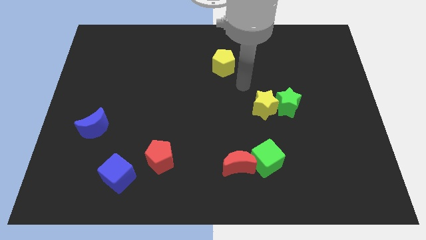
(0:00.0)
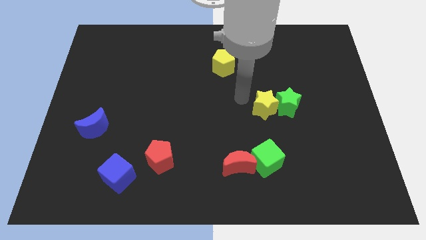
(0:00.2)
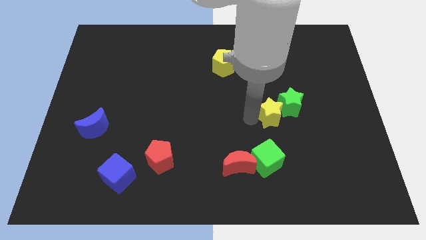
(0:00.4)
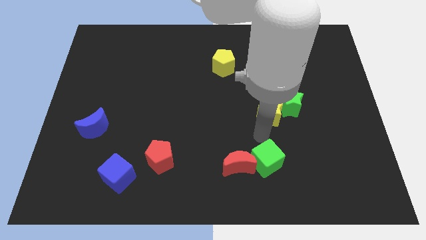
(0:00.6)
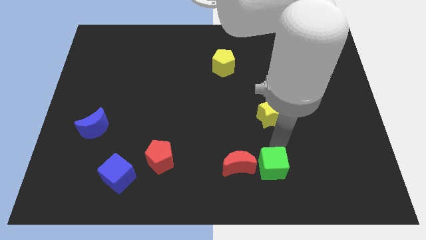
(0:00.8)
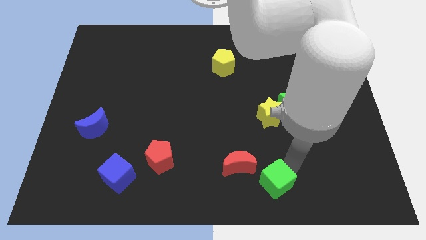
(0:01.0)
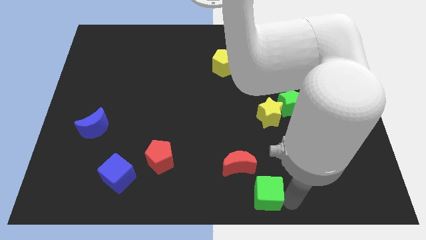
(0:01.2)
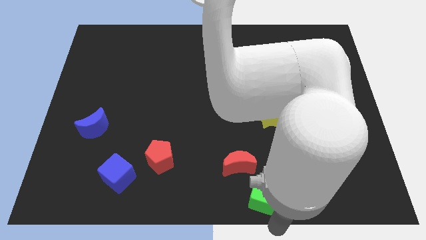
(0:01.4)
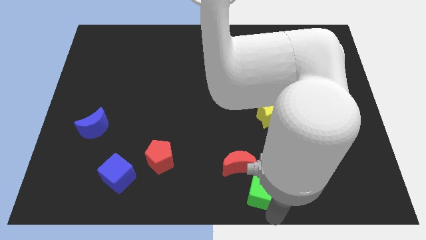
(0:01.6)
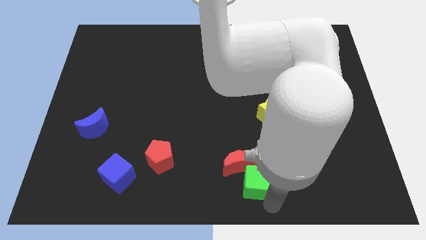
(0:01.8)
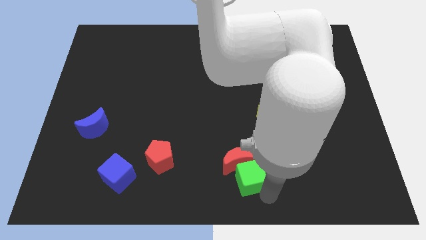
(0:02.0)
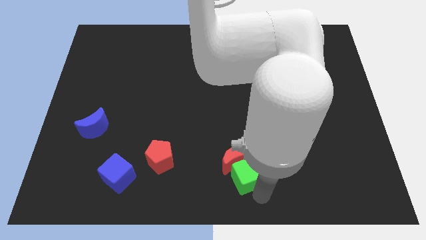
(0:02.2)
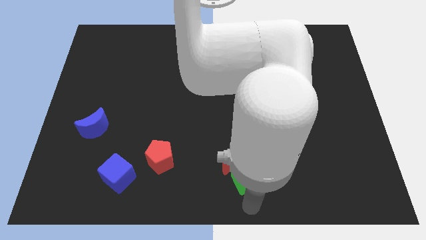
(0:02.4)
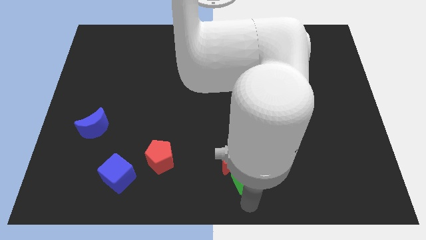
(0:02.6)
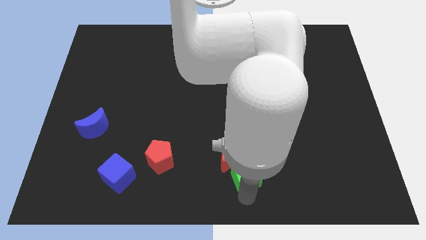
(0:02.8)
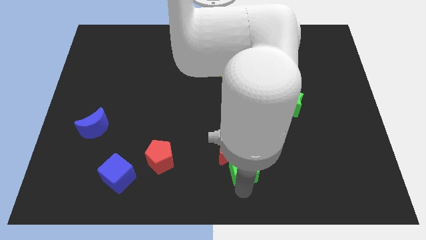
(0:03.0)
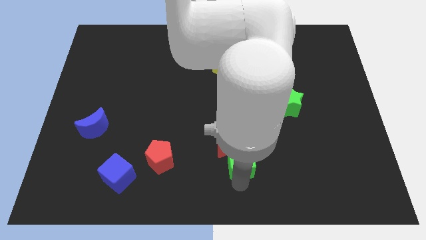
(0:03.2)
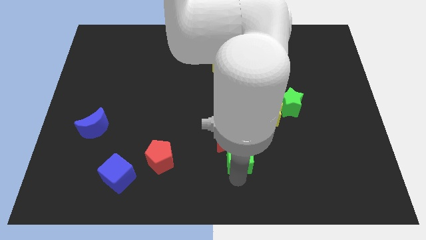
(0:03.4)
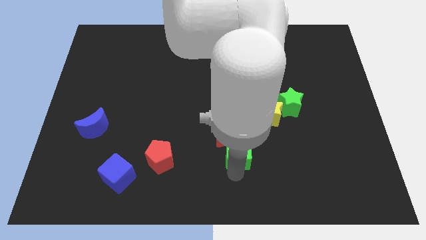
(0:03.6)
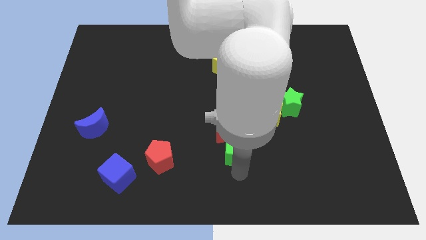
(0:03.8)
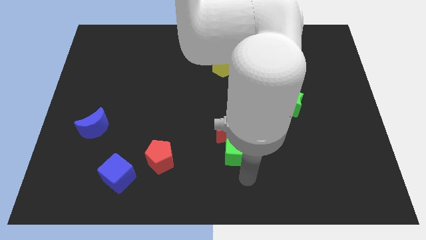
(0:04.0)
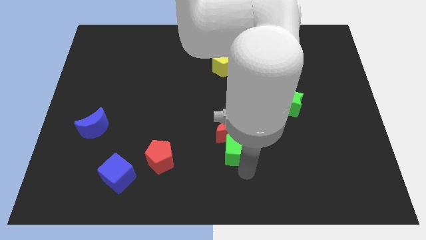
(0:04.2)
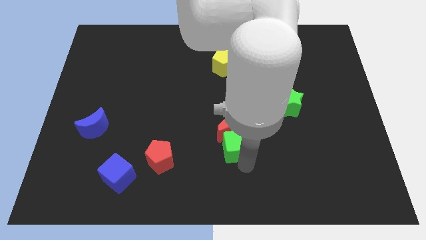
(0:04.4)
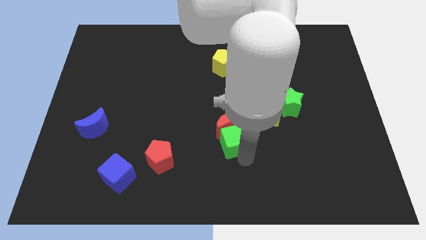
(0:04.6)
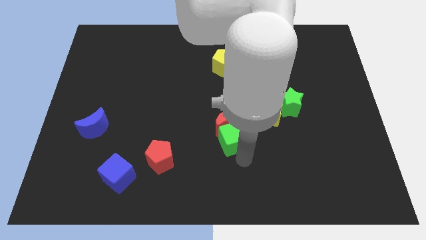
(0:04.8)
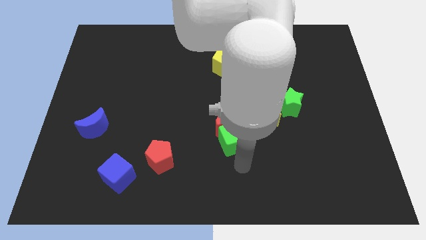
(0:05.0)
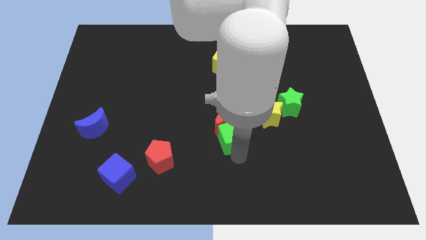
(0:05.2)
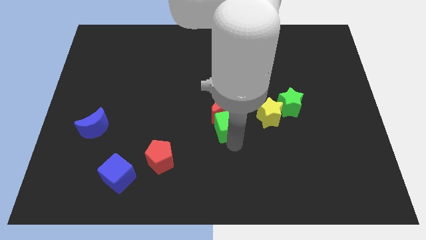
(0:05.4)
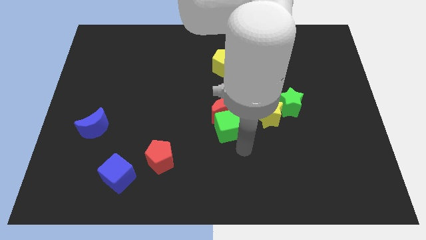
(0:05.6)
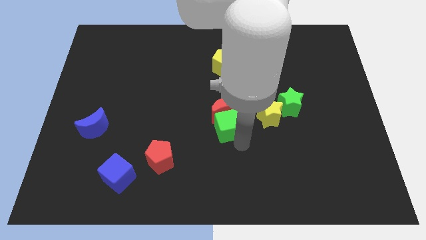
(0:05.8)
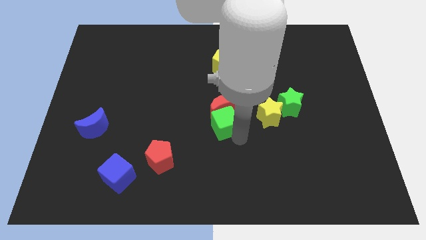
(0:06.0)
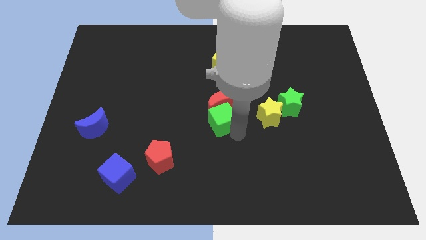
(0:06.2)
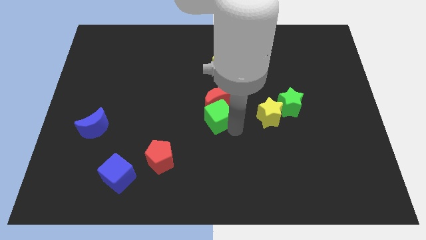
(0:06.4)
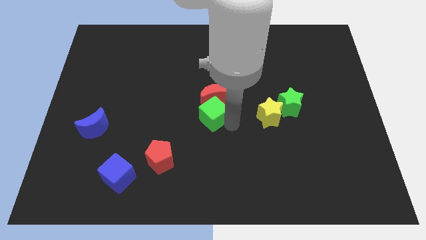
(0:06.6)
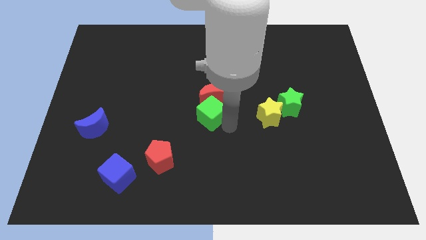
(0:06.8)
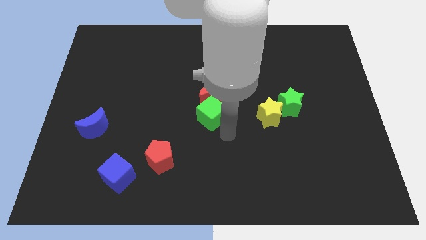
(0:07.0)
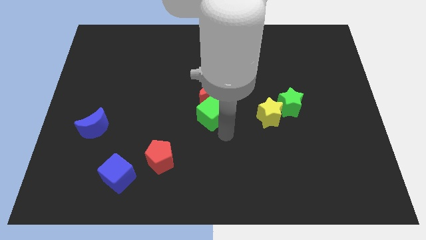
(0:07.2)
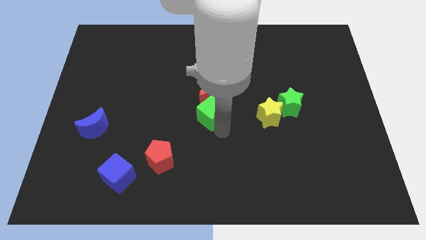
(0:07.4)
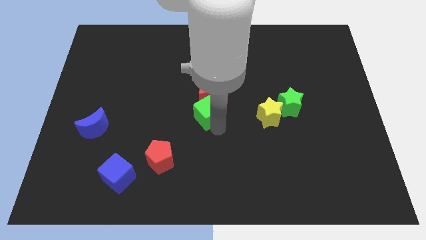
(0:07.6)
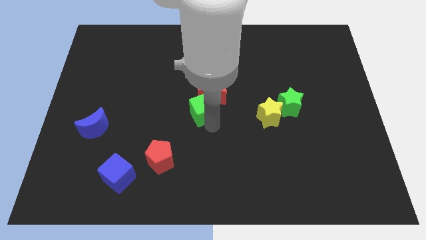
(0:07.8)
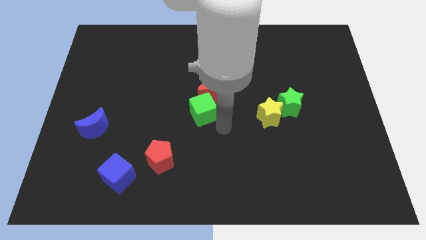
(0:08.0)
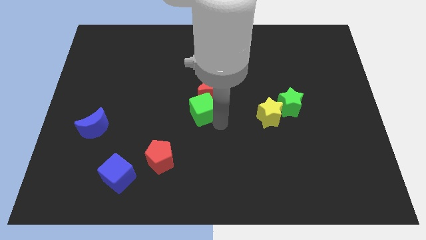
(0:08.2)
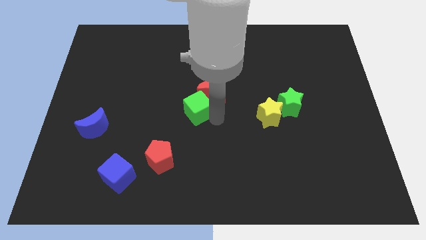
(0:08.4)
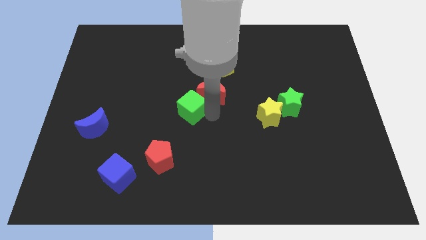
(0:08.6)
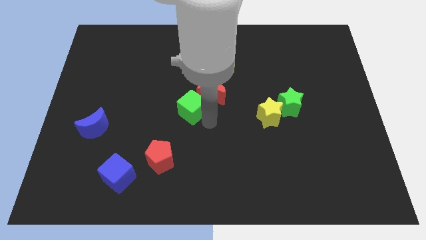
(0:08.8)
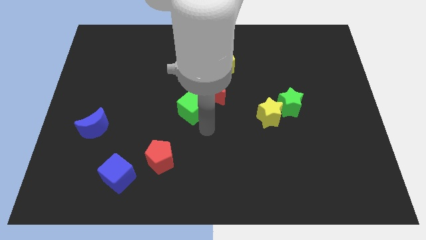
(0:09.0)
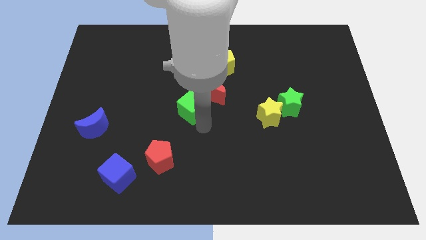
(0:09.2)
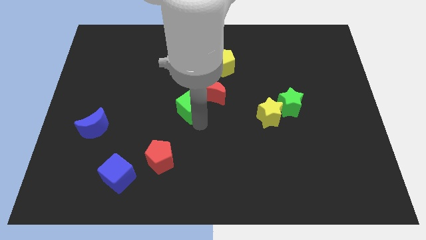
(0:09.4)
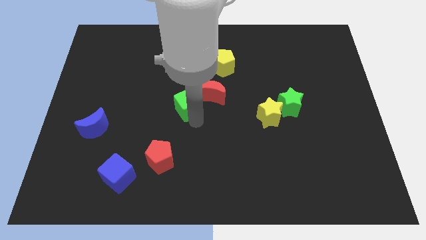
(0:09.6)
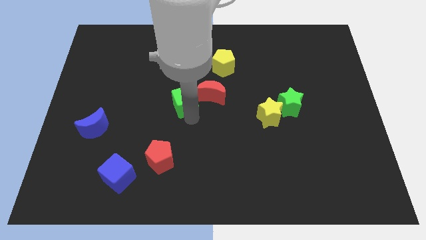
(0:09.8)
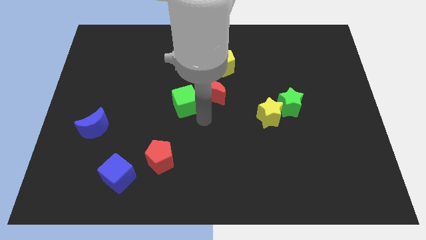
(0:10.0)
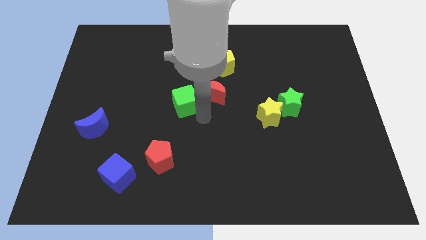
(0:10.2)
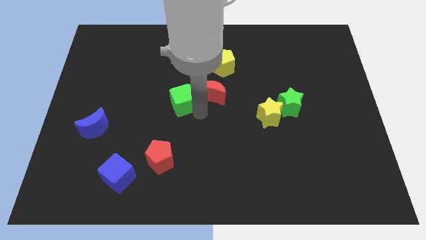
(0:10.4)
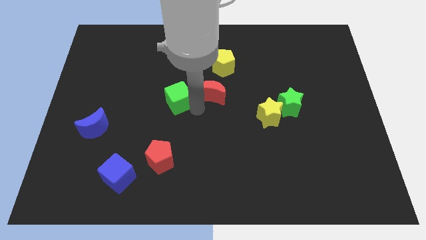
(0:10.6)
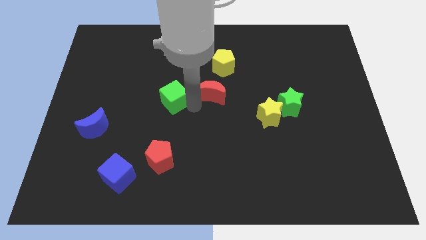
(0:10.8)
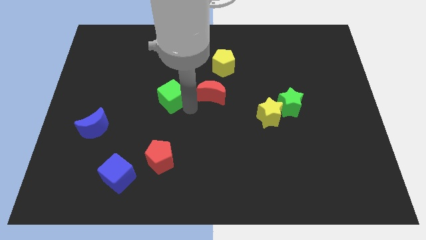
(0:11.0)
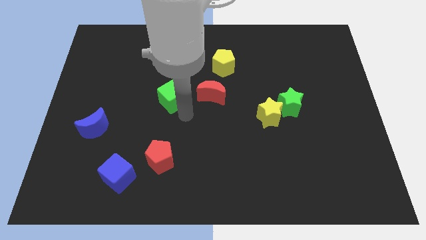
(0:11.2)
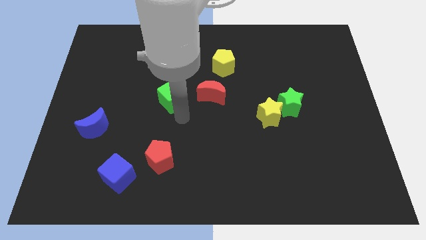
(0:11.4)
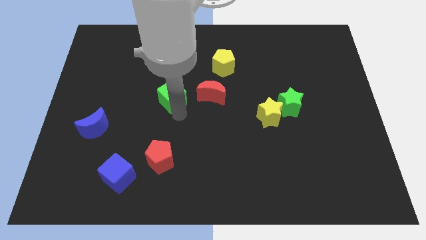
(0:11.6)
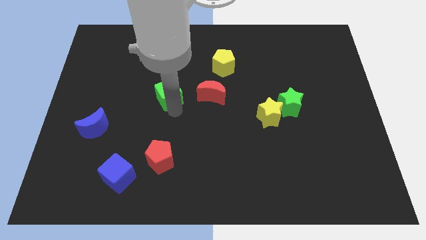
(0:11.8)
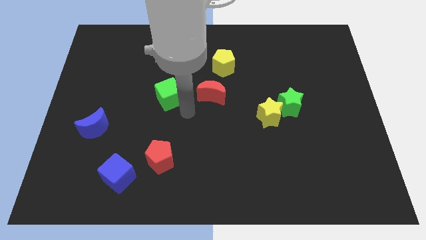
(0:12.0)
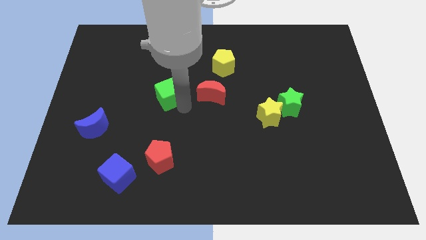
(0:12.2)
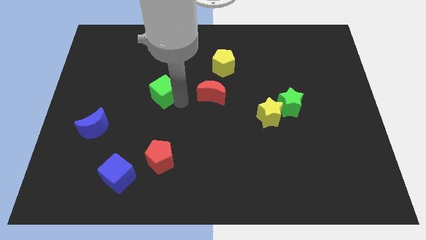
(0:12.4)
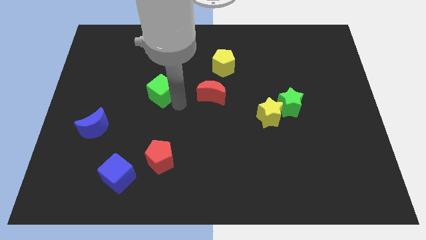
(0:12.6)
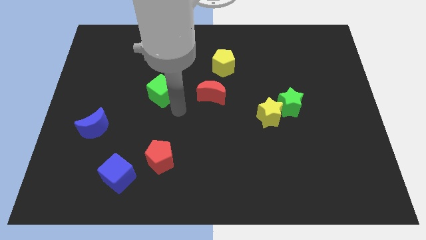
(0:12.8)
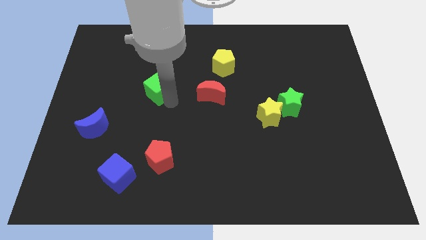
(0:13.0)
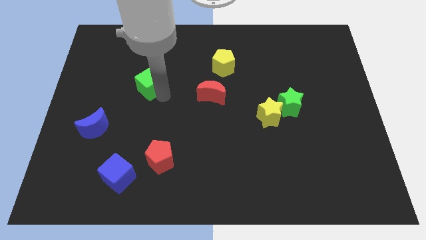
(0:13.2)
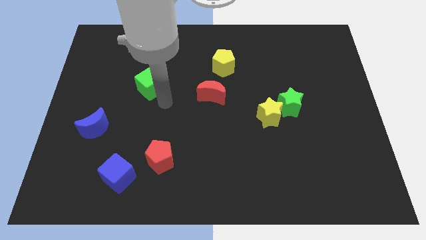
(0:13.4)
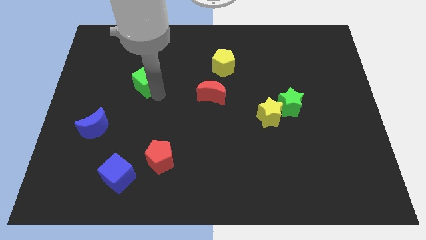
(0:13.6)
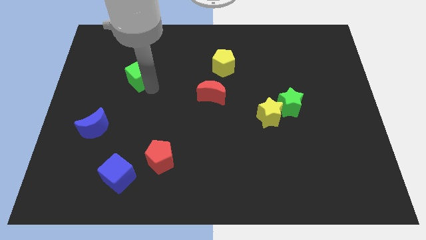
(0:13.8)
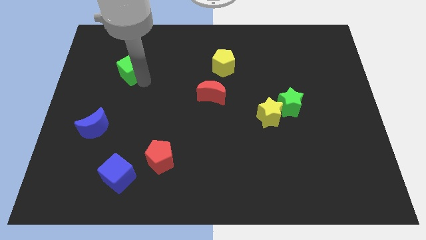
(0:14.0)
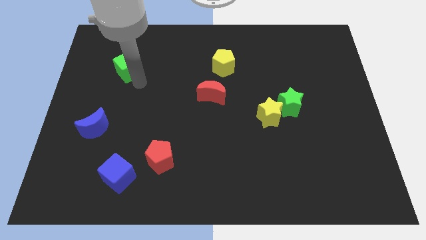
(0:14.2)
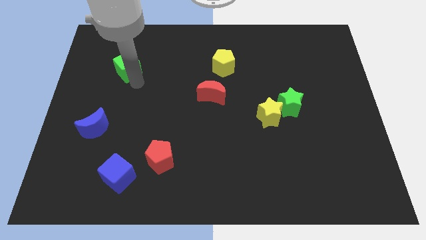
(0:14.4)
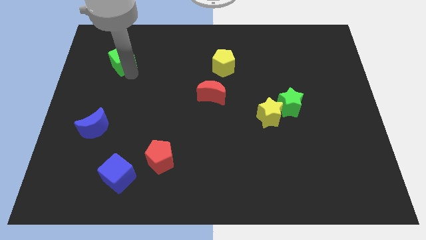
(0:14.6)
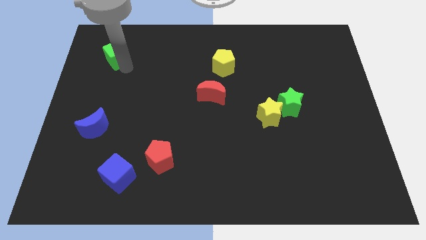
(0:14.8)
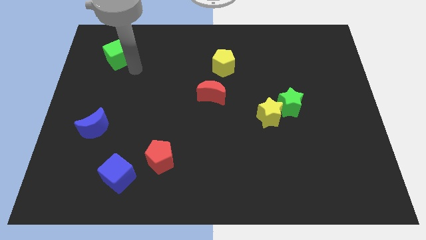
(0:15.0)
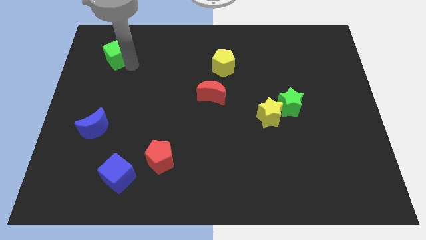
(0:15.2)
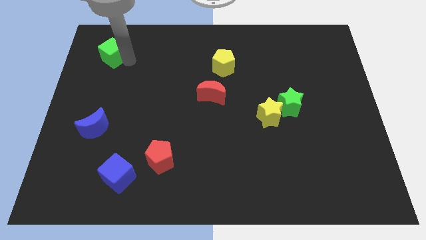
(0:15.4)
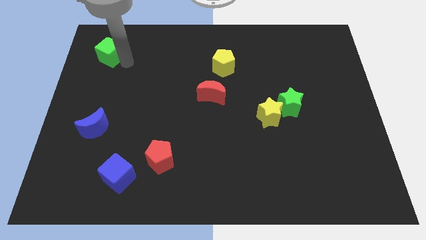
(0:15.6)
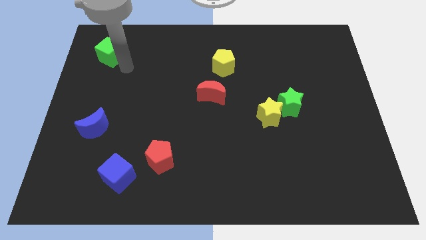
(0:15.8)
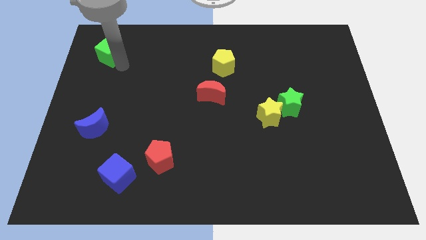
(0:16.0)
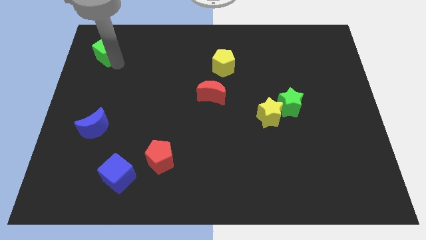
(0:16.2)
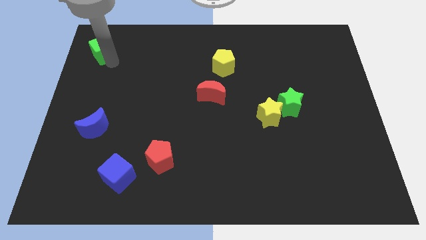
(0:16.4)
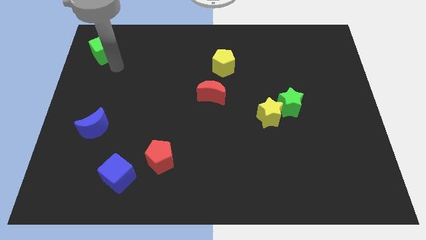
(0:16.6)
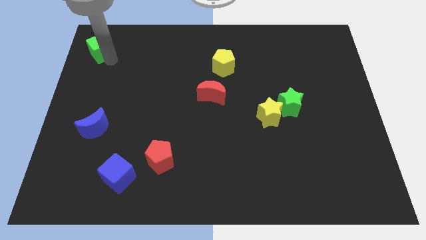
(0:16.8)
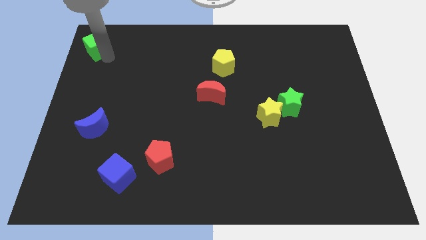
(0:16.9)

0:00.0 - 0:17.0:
put the green cube to the upper left corner
